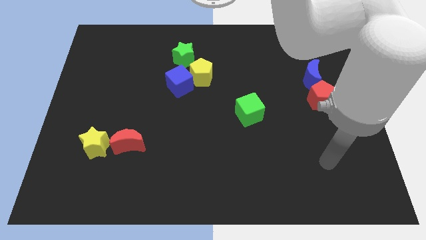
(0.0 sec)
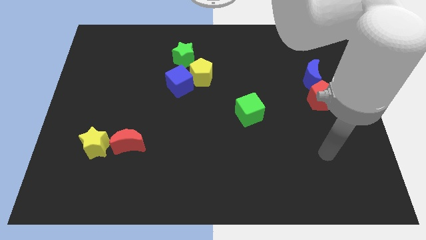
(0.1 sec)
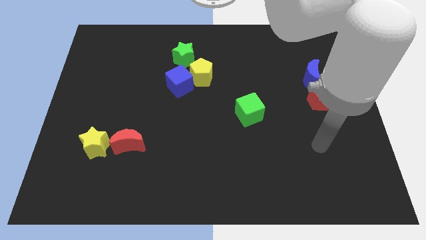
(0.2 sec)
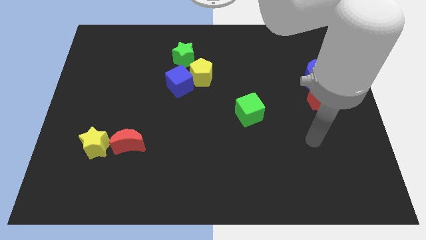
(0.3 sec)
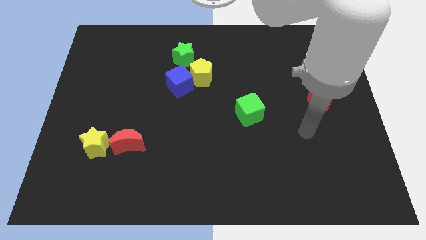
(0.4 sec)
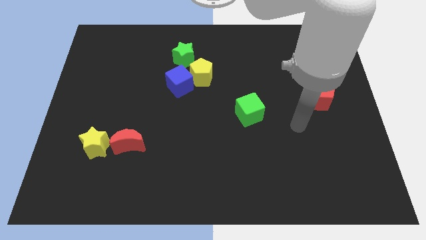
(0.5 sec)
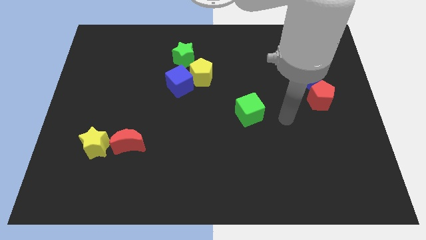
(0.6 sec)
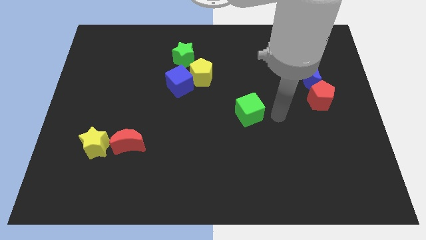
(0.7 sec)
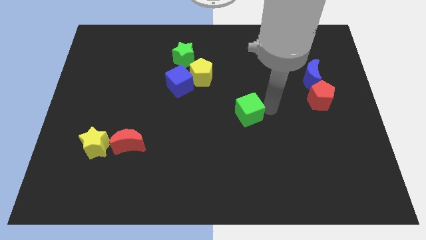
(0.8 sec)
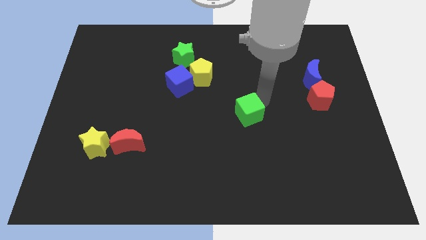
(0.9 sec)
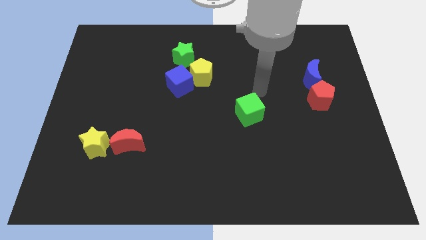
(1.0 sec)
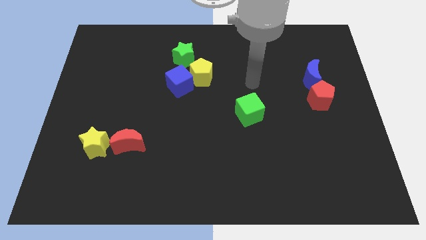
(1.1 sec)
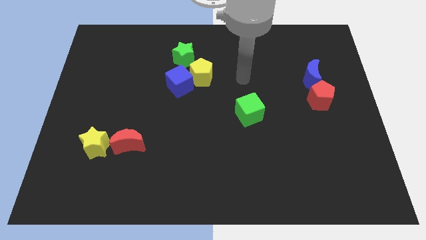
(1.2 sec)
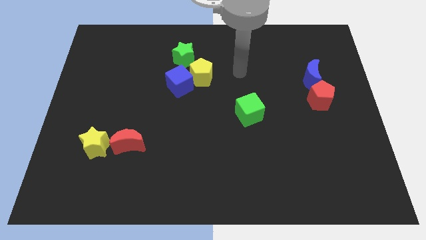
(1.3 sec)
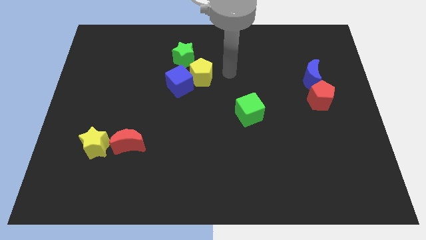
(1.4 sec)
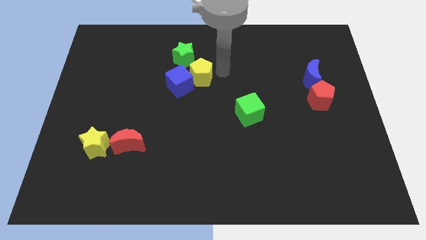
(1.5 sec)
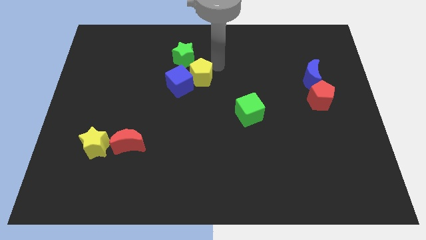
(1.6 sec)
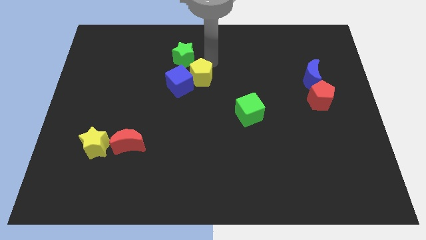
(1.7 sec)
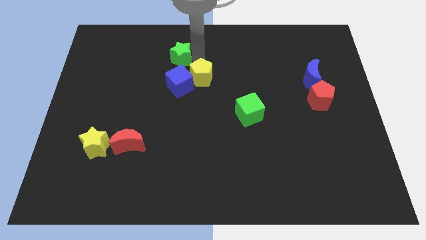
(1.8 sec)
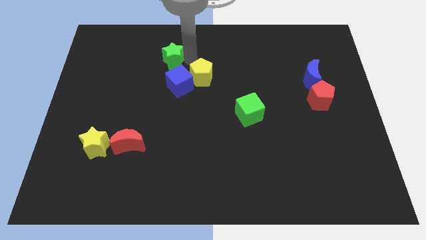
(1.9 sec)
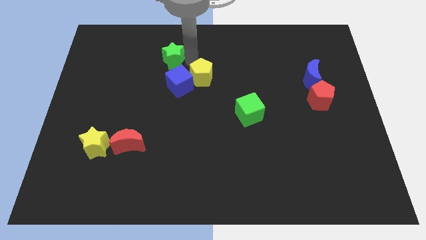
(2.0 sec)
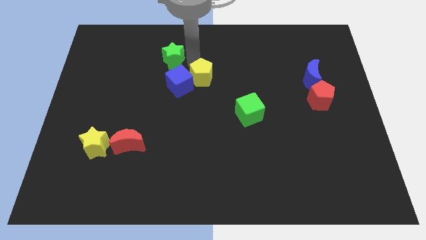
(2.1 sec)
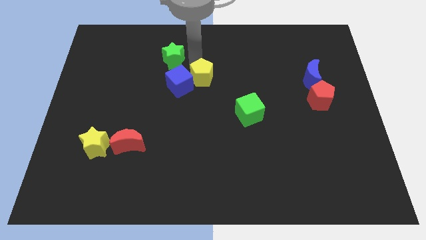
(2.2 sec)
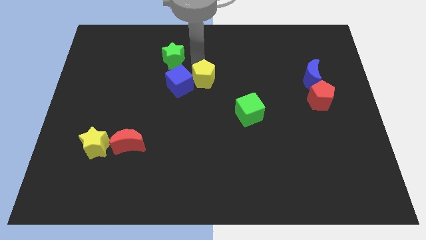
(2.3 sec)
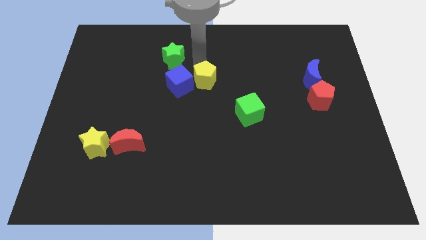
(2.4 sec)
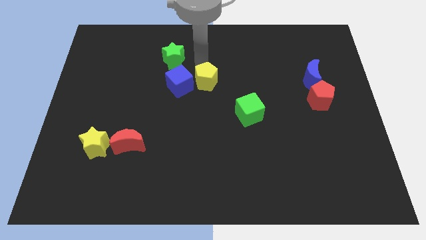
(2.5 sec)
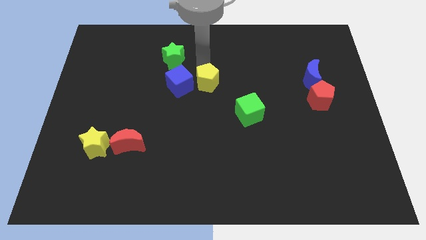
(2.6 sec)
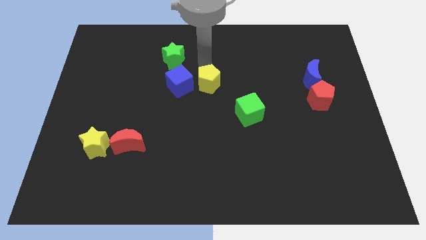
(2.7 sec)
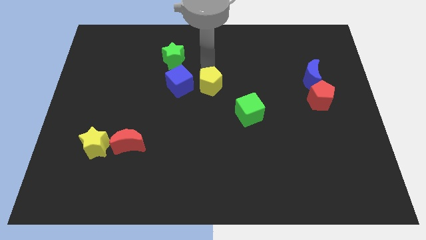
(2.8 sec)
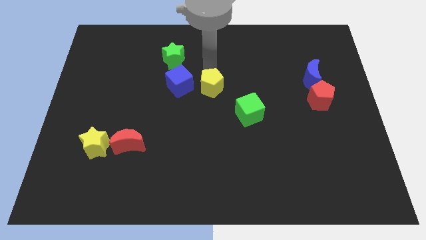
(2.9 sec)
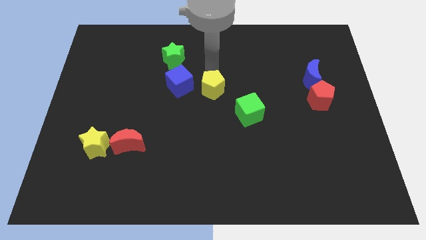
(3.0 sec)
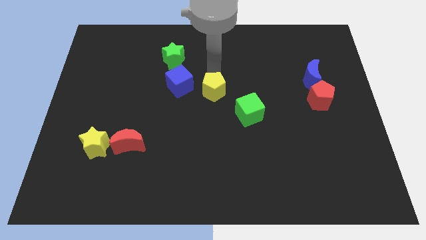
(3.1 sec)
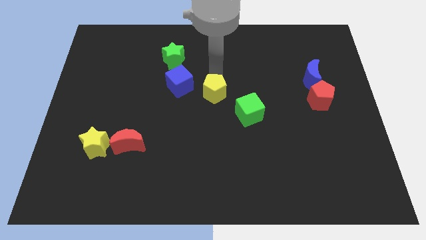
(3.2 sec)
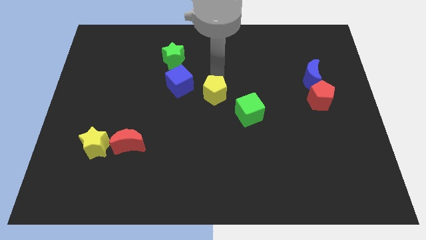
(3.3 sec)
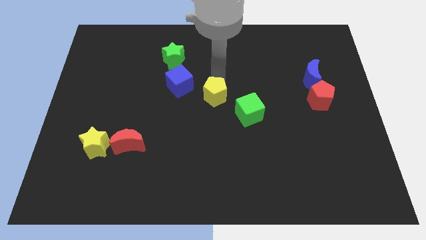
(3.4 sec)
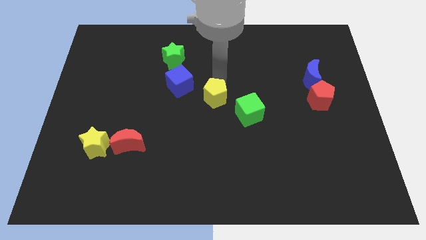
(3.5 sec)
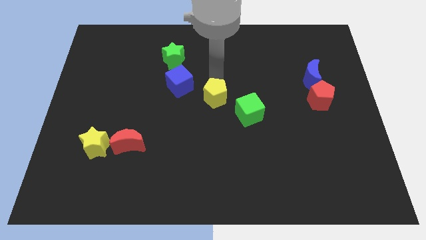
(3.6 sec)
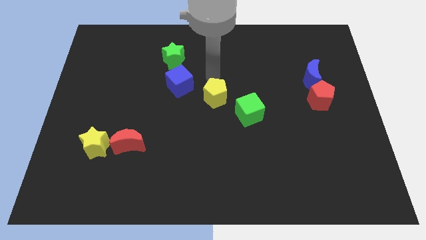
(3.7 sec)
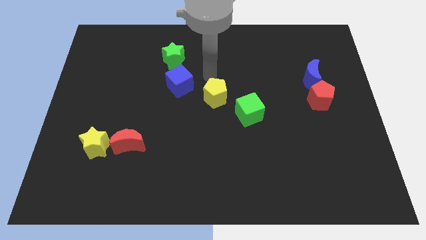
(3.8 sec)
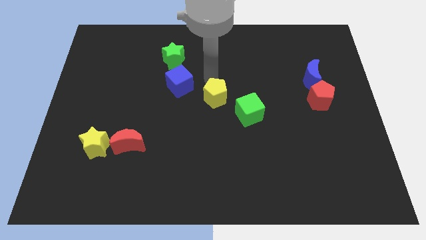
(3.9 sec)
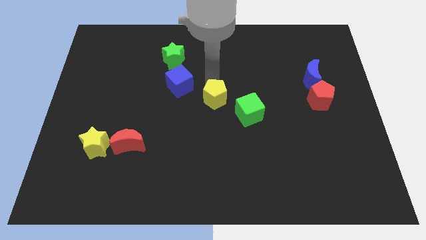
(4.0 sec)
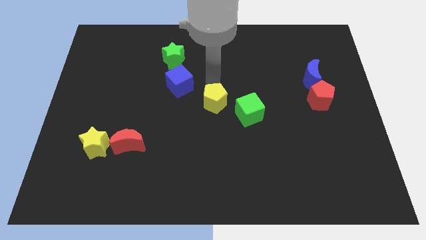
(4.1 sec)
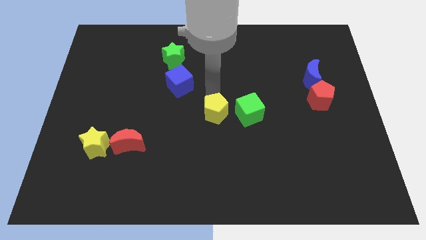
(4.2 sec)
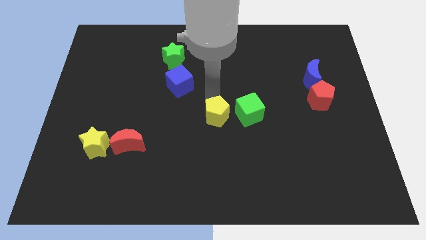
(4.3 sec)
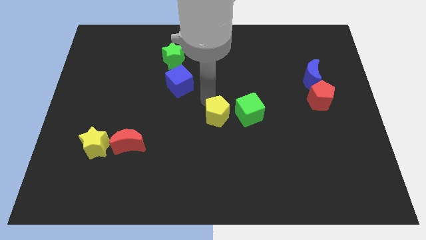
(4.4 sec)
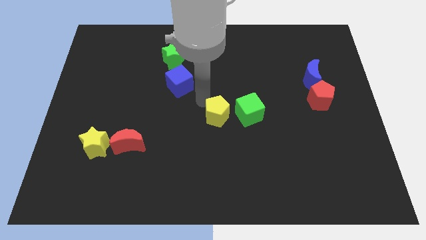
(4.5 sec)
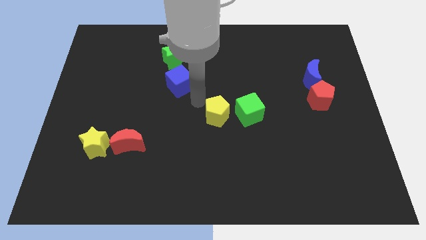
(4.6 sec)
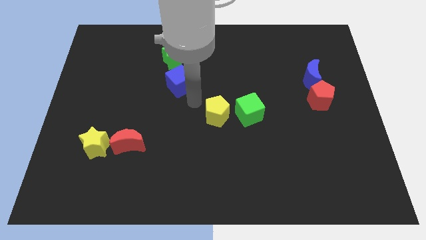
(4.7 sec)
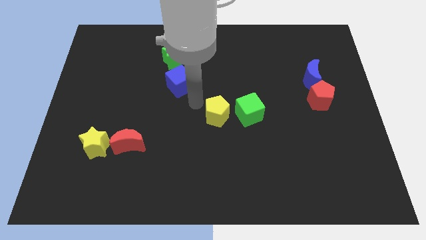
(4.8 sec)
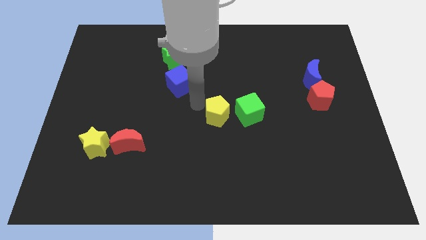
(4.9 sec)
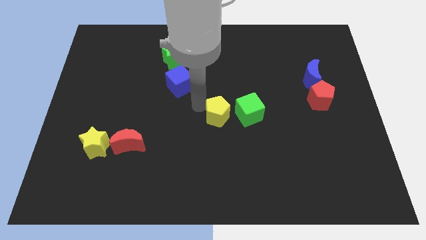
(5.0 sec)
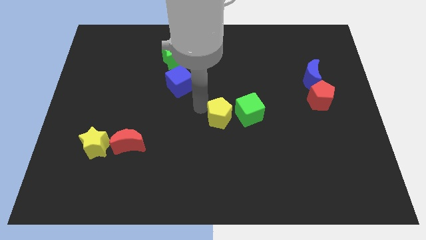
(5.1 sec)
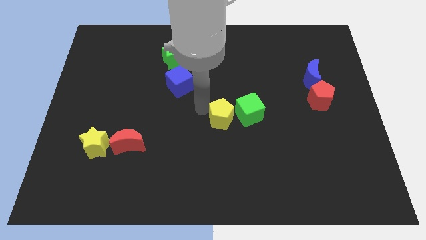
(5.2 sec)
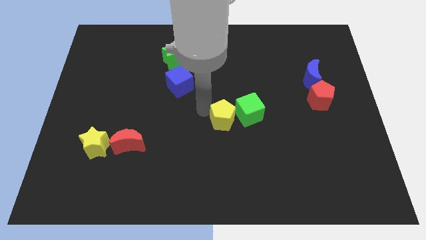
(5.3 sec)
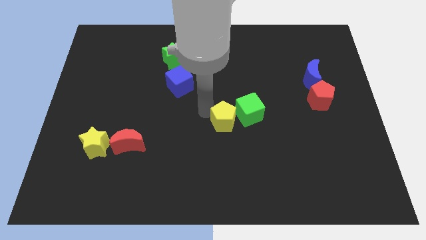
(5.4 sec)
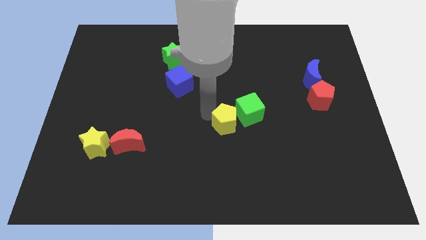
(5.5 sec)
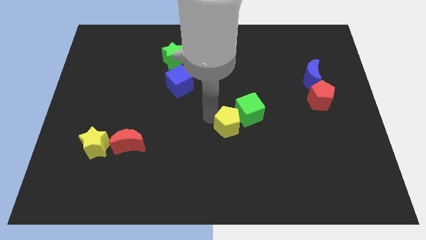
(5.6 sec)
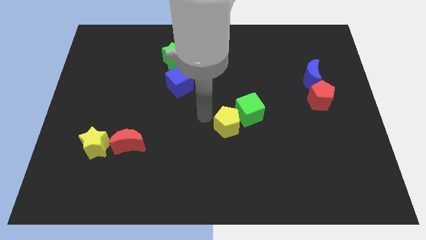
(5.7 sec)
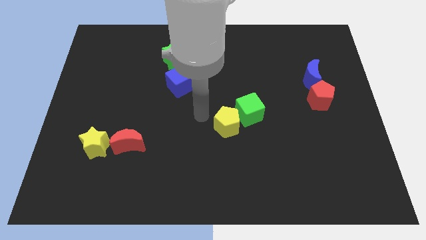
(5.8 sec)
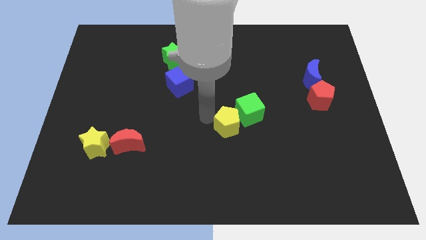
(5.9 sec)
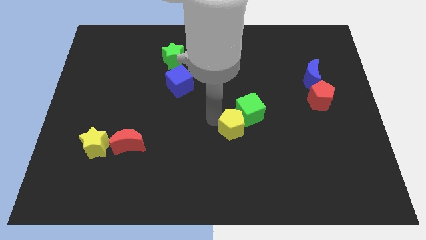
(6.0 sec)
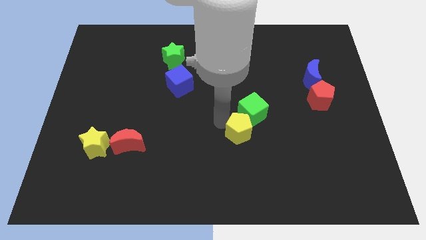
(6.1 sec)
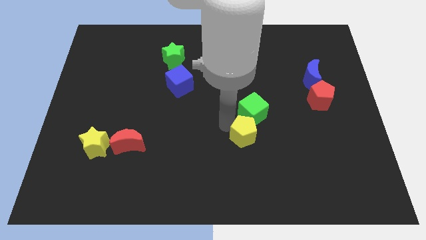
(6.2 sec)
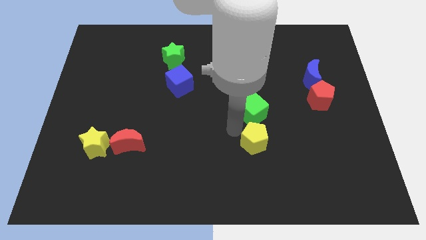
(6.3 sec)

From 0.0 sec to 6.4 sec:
push the yellow pentagon downwards and to the right diagonally

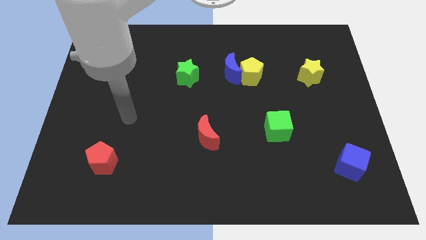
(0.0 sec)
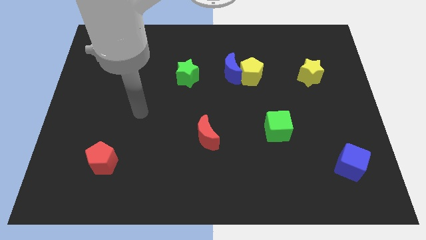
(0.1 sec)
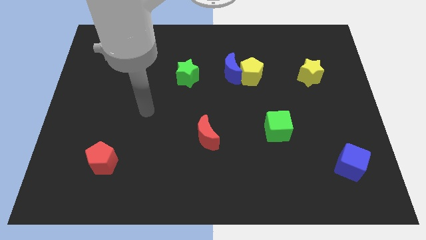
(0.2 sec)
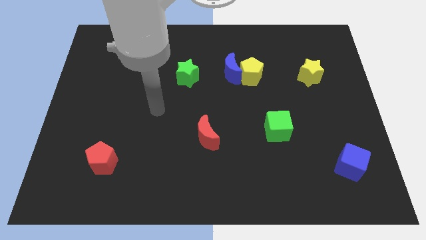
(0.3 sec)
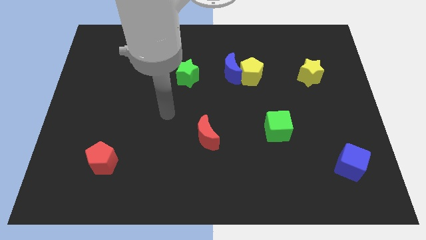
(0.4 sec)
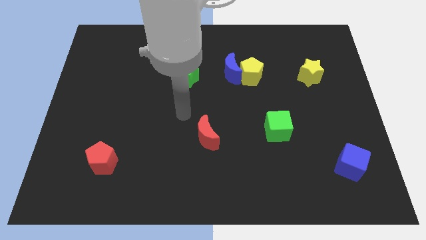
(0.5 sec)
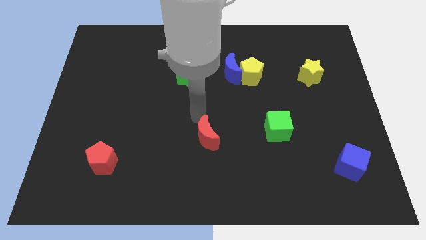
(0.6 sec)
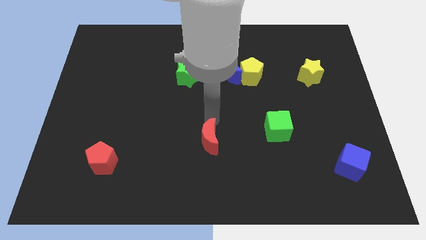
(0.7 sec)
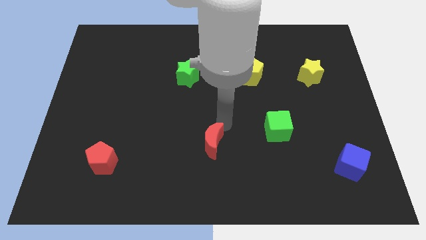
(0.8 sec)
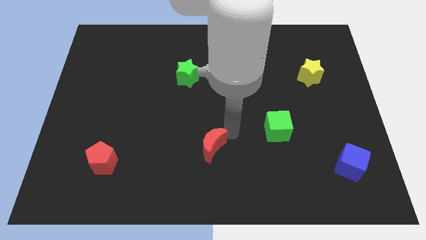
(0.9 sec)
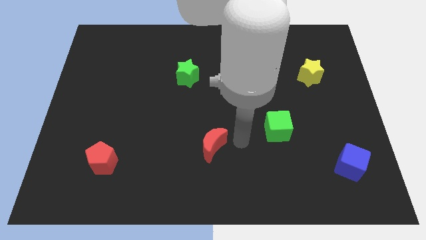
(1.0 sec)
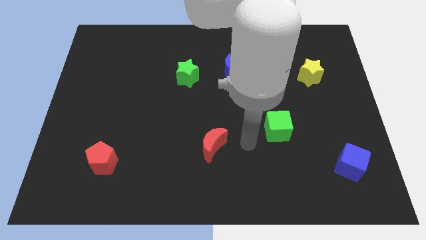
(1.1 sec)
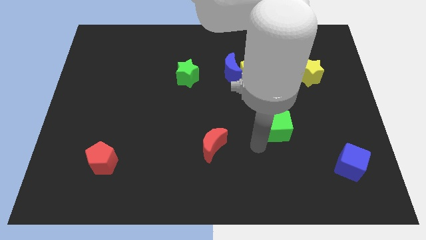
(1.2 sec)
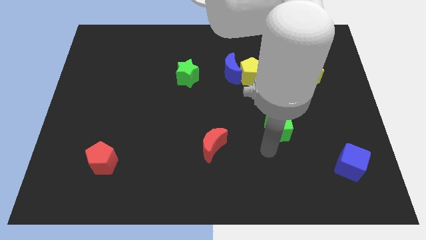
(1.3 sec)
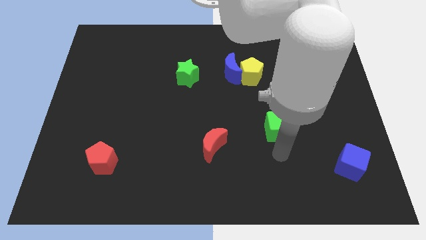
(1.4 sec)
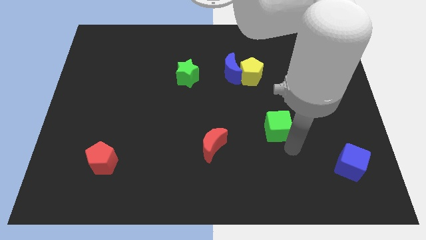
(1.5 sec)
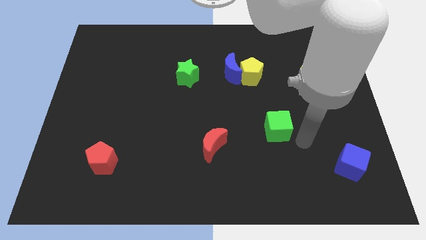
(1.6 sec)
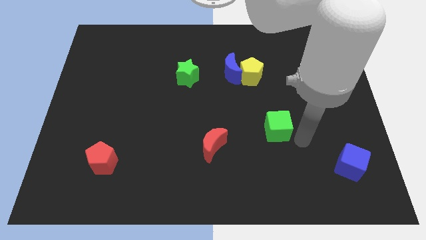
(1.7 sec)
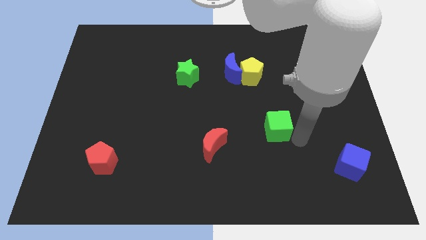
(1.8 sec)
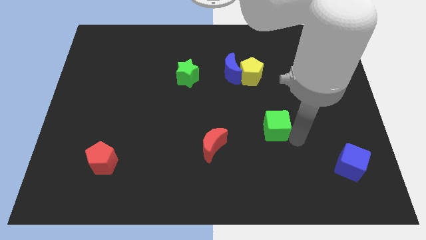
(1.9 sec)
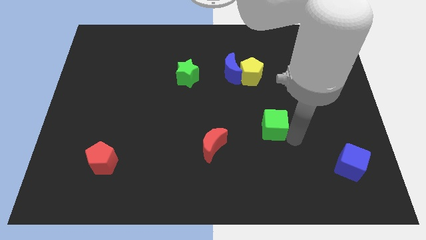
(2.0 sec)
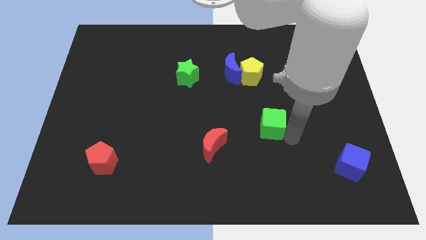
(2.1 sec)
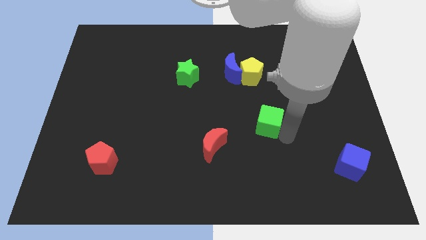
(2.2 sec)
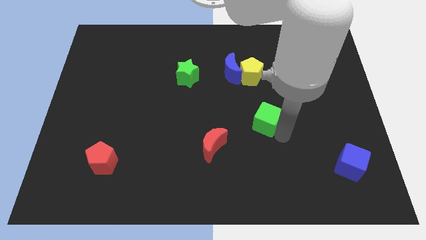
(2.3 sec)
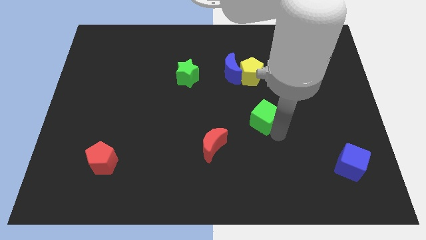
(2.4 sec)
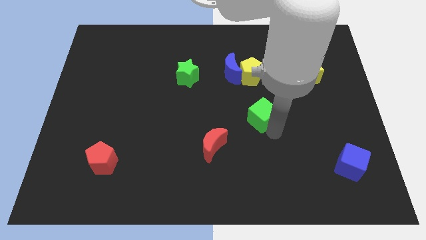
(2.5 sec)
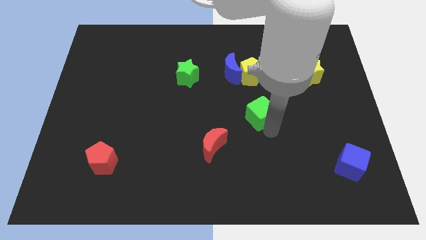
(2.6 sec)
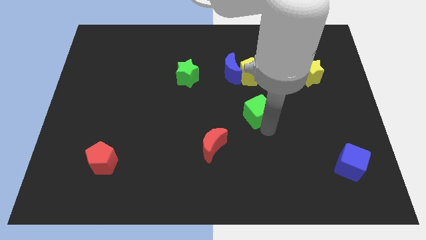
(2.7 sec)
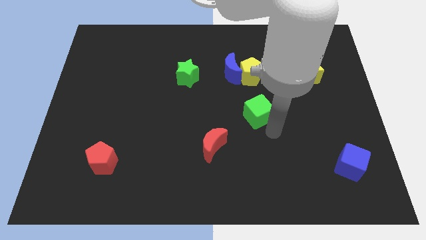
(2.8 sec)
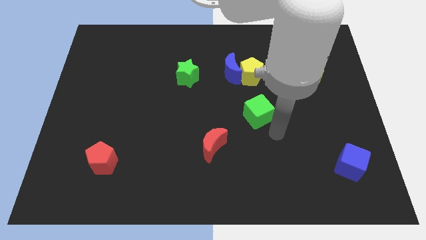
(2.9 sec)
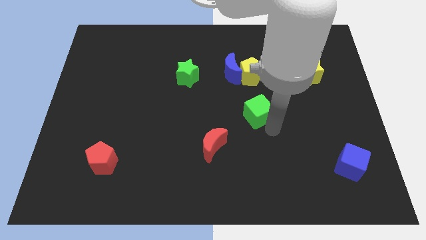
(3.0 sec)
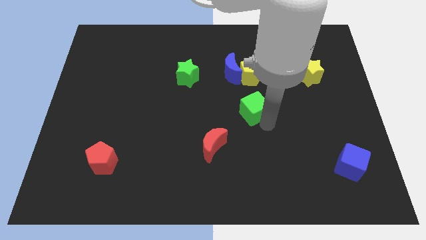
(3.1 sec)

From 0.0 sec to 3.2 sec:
slide the green cube upwards and to the left diagonally a little bit
